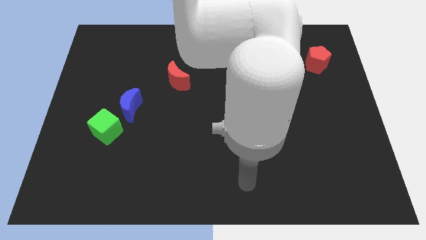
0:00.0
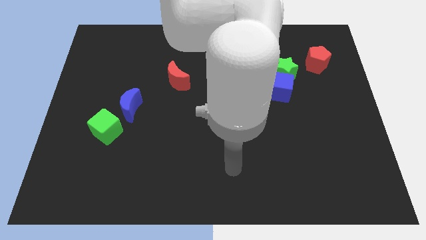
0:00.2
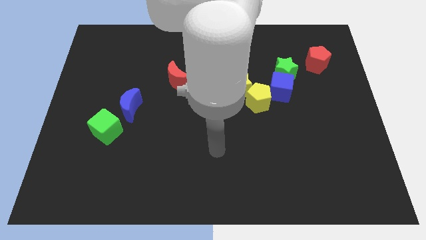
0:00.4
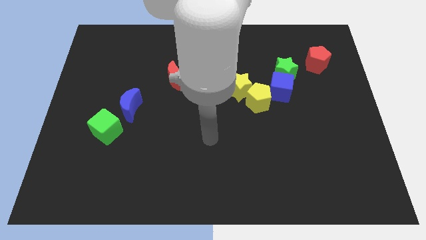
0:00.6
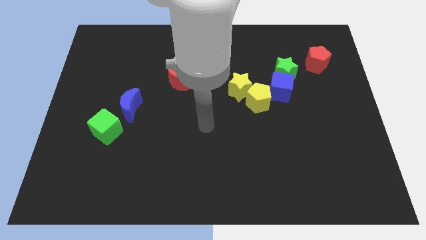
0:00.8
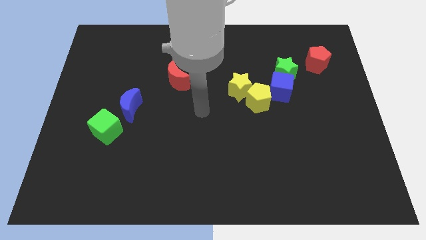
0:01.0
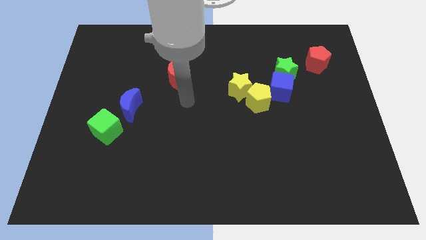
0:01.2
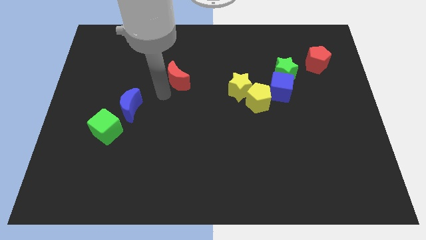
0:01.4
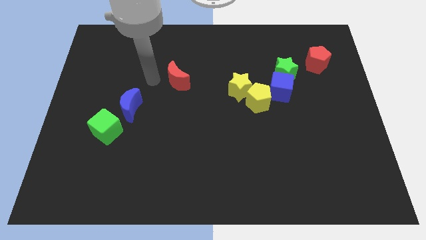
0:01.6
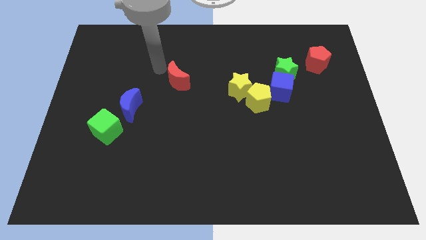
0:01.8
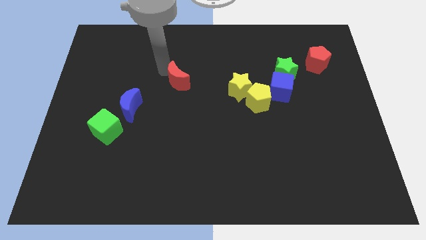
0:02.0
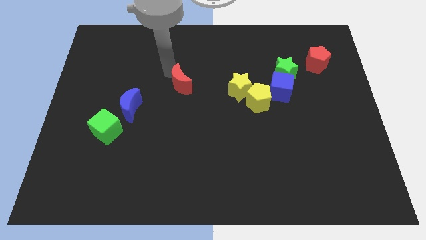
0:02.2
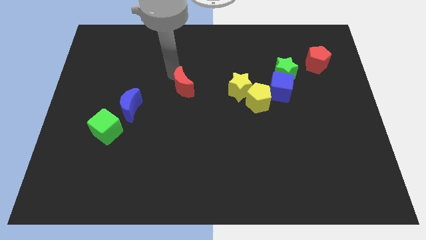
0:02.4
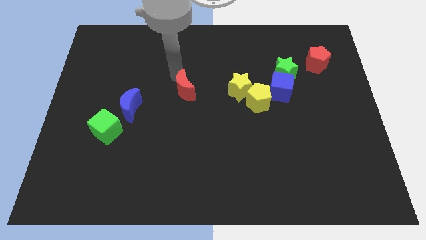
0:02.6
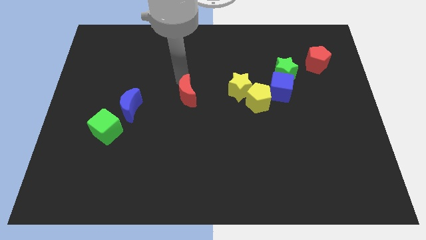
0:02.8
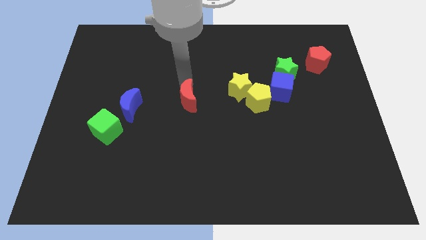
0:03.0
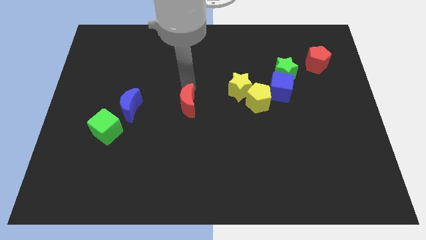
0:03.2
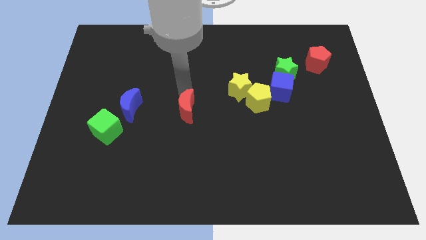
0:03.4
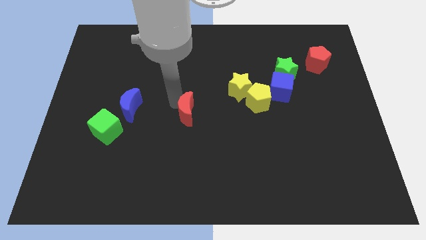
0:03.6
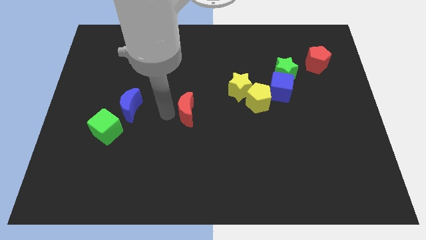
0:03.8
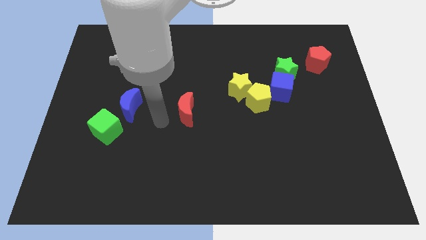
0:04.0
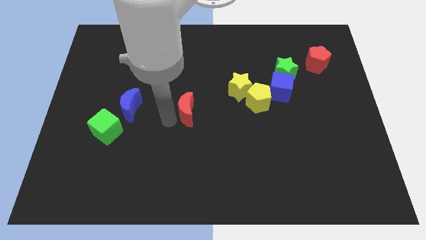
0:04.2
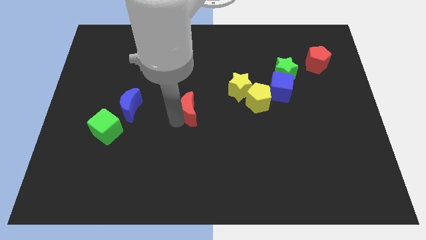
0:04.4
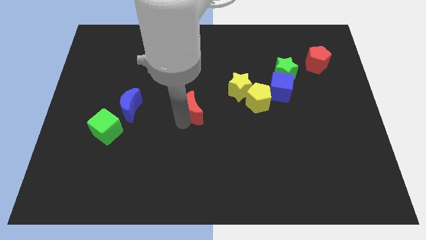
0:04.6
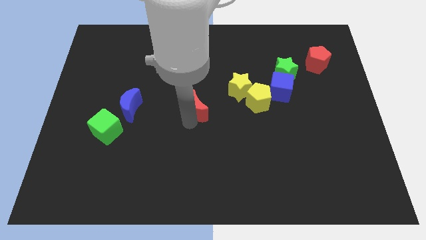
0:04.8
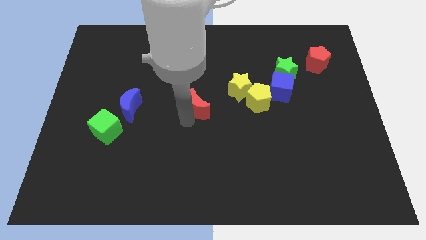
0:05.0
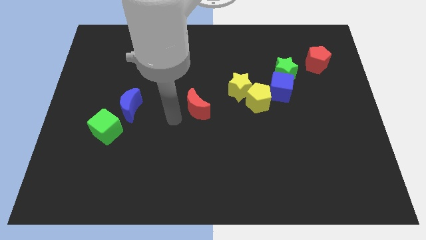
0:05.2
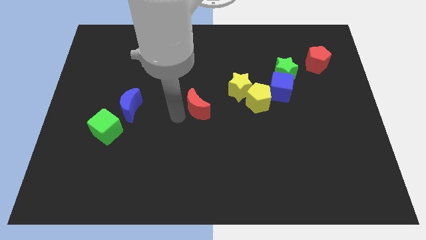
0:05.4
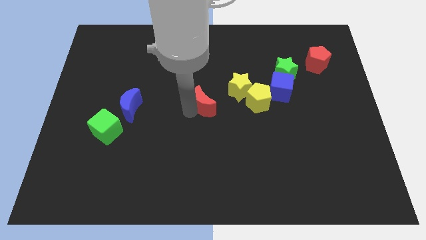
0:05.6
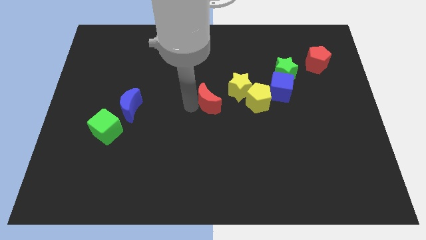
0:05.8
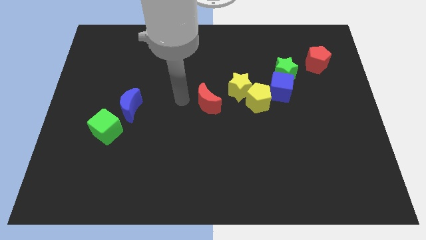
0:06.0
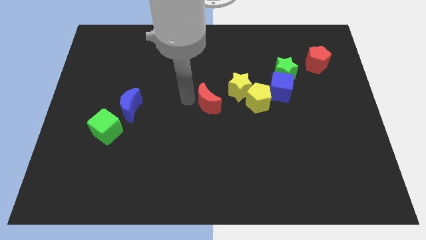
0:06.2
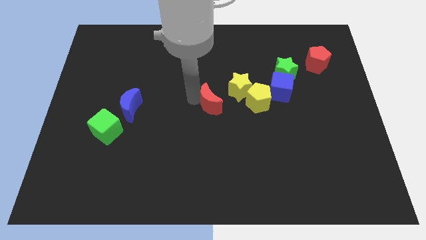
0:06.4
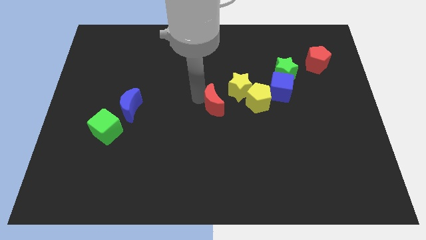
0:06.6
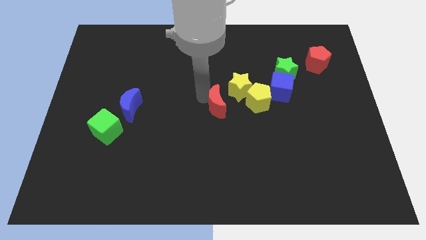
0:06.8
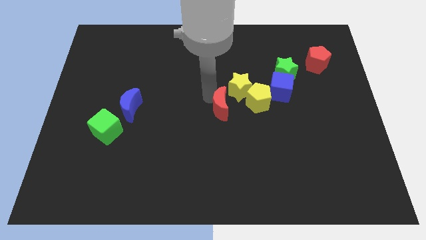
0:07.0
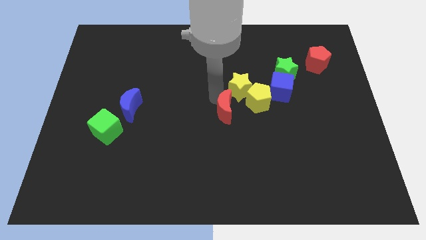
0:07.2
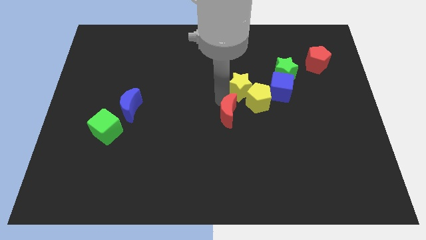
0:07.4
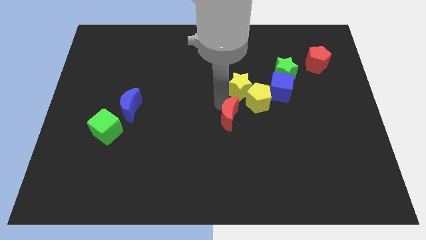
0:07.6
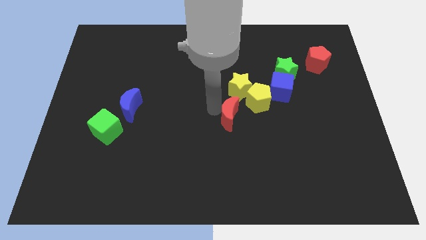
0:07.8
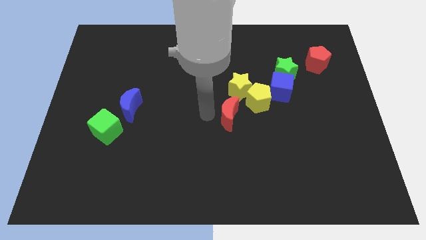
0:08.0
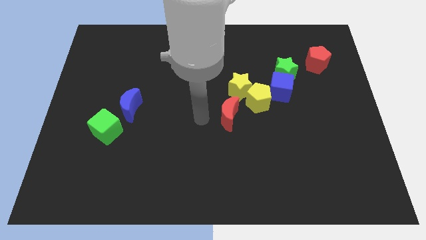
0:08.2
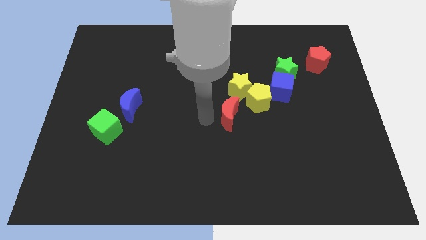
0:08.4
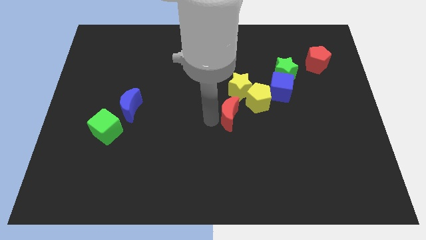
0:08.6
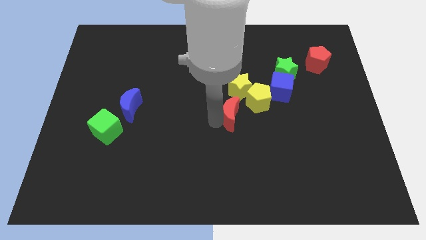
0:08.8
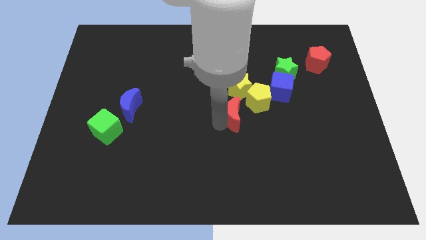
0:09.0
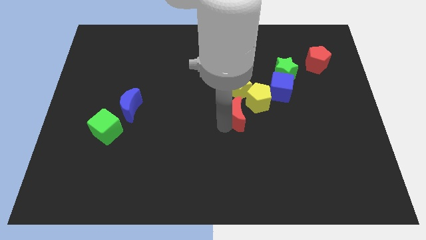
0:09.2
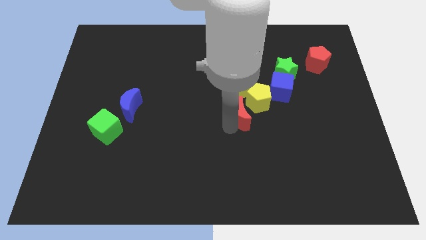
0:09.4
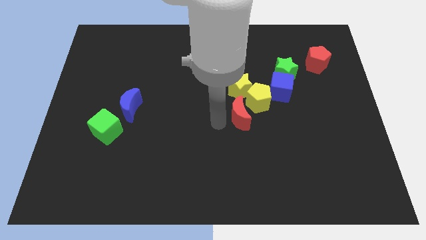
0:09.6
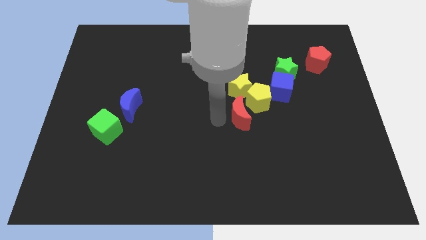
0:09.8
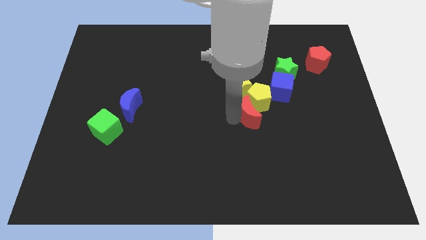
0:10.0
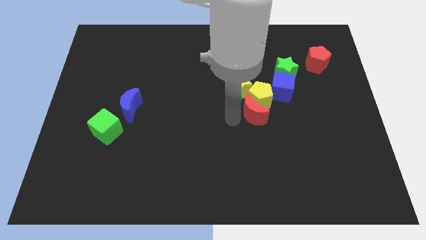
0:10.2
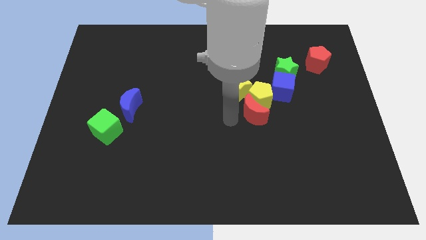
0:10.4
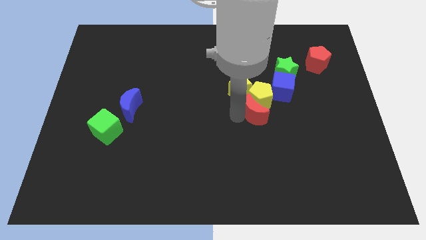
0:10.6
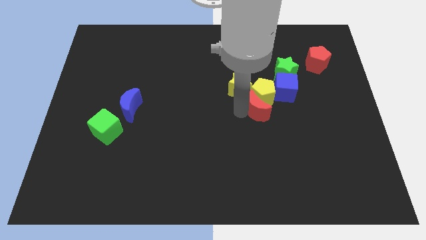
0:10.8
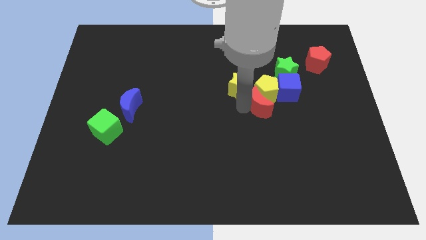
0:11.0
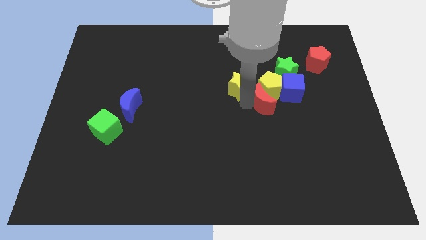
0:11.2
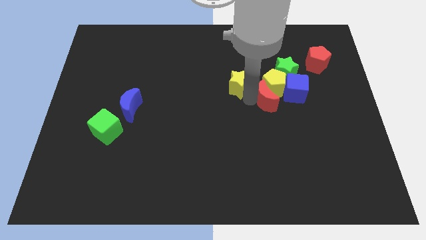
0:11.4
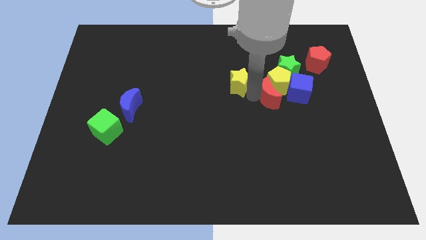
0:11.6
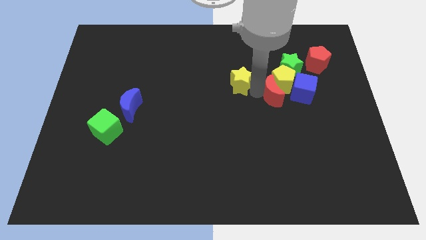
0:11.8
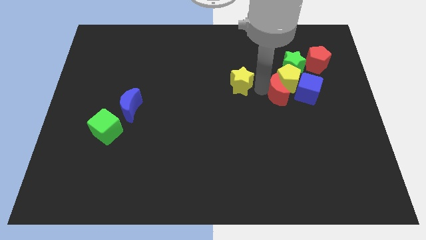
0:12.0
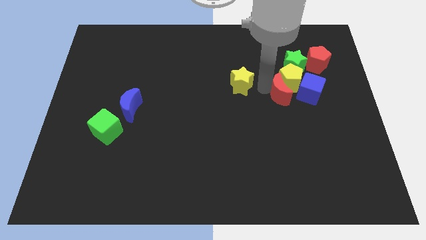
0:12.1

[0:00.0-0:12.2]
push the red moon below the green star
